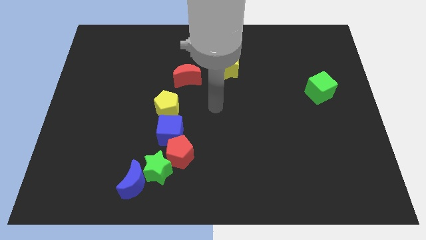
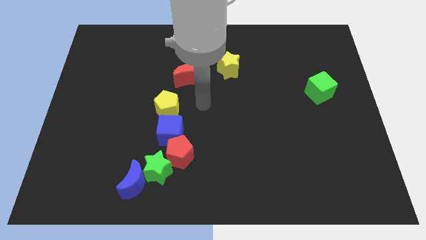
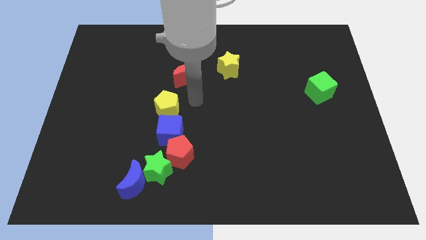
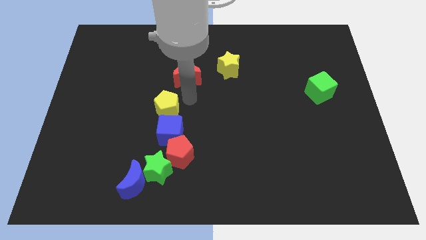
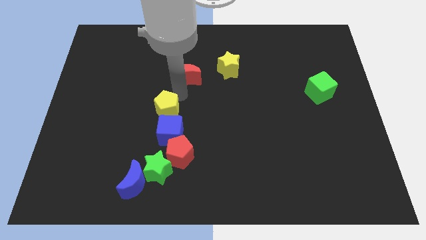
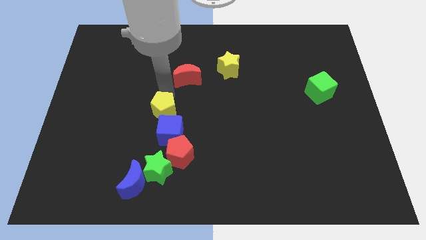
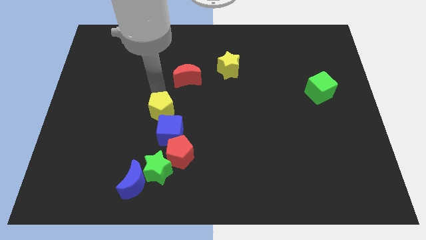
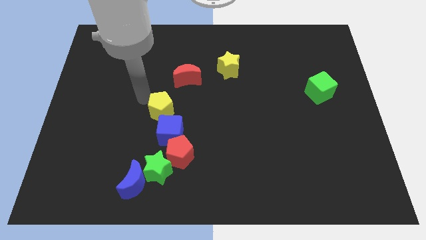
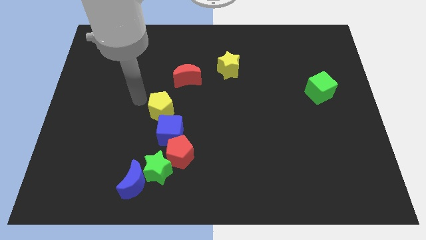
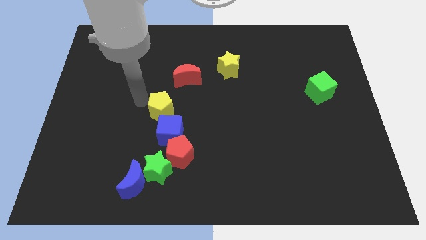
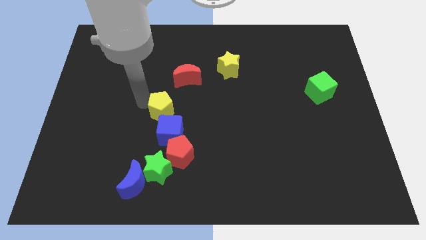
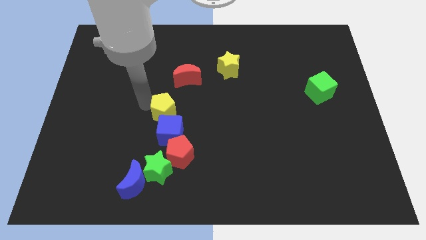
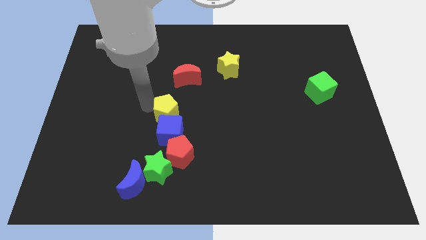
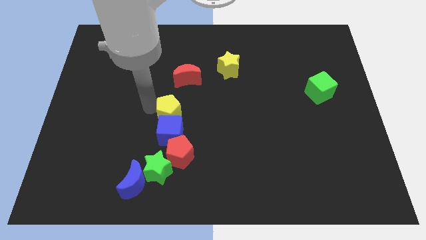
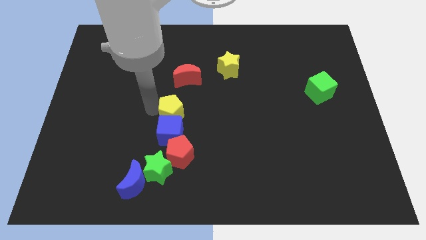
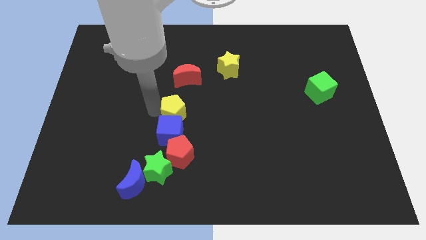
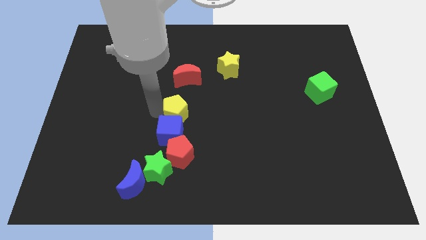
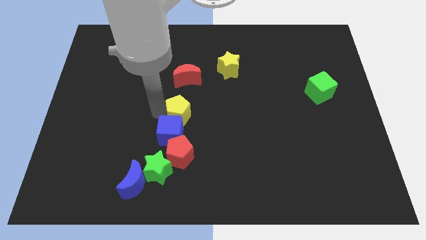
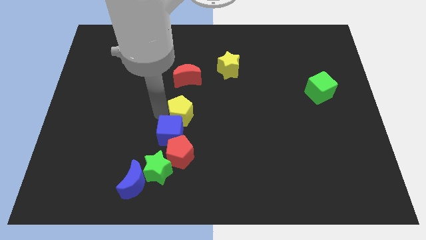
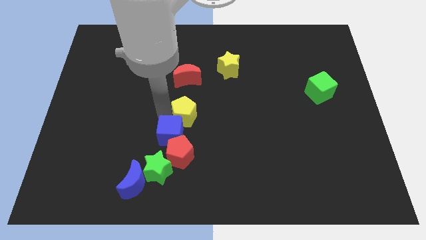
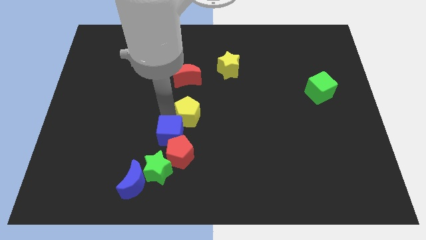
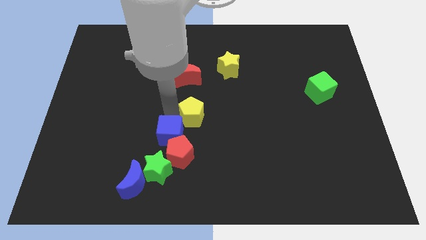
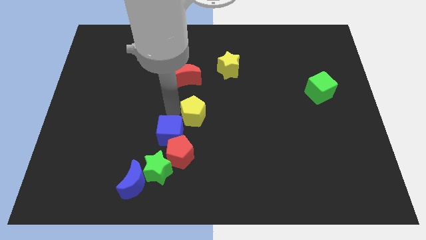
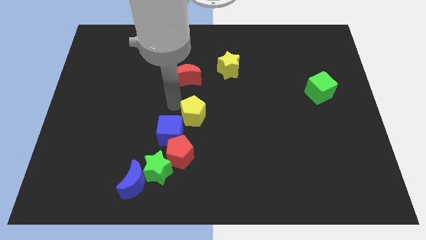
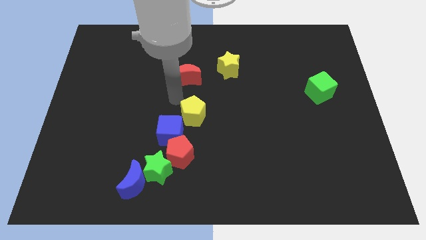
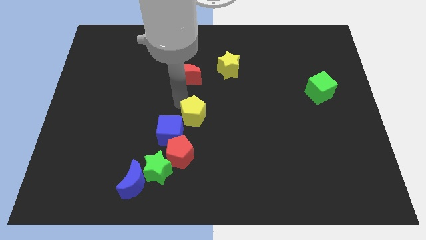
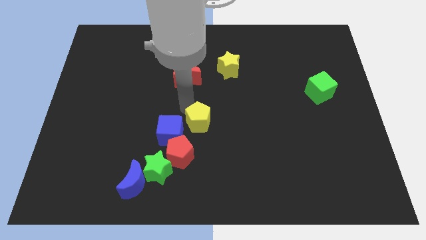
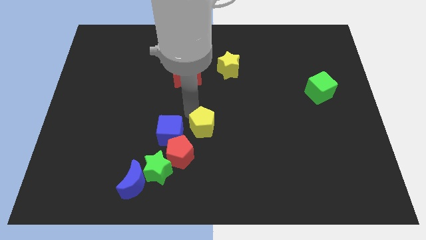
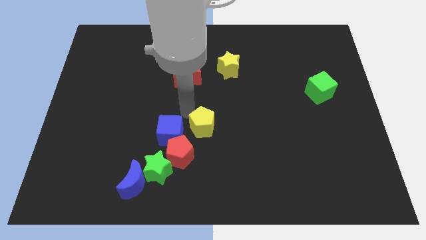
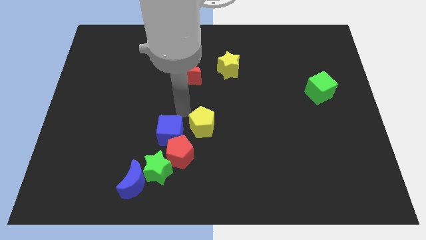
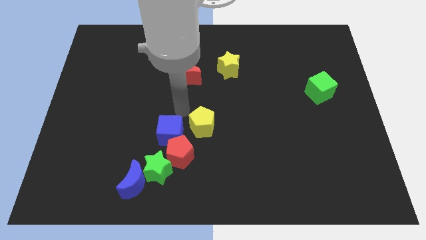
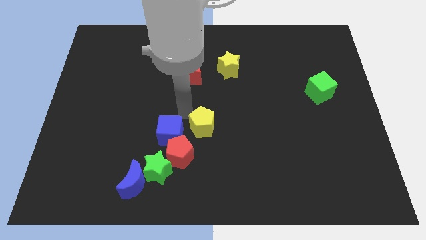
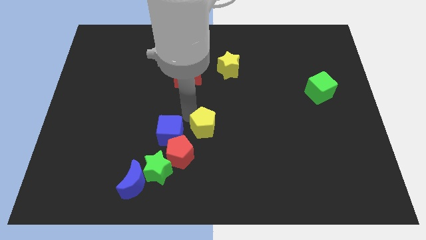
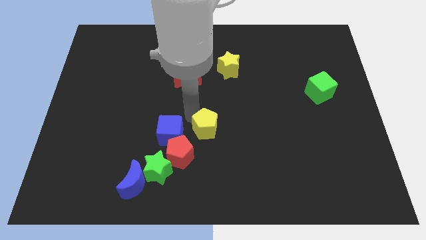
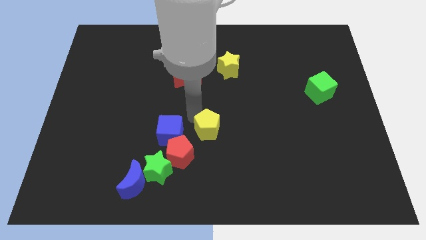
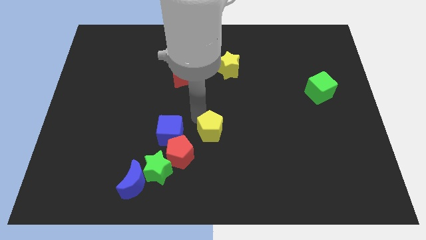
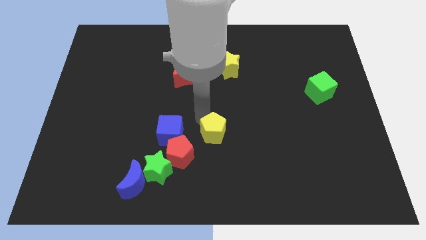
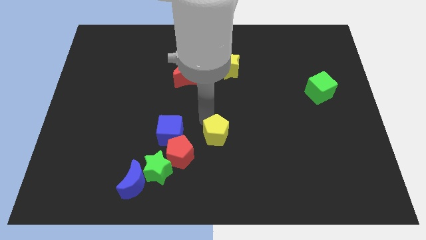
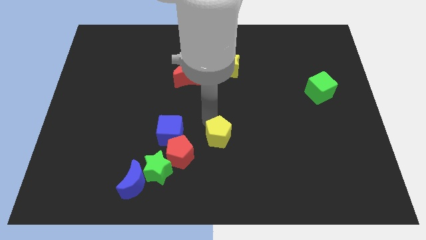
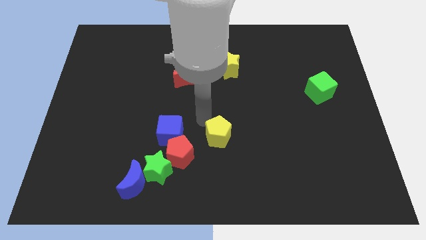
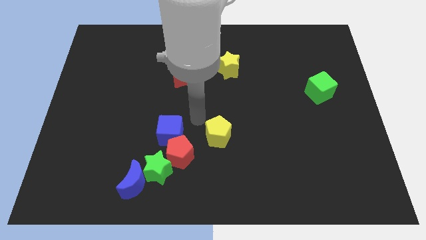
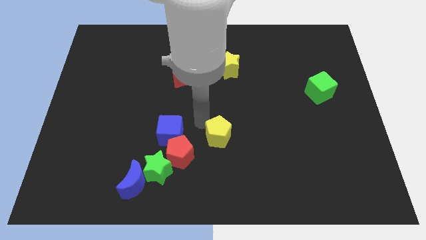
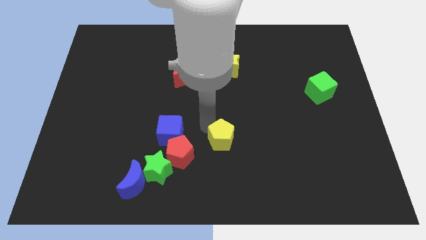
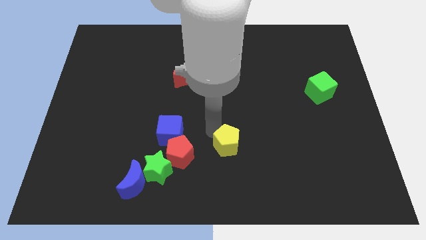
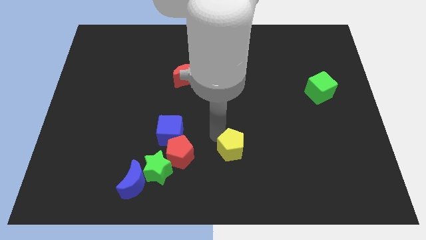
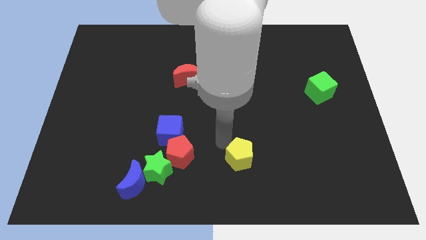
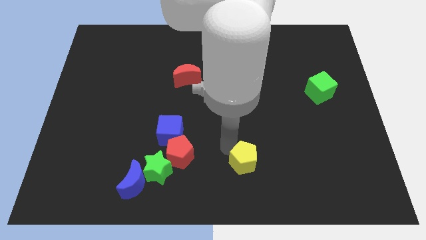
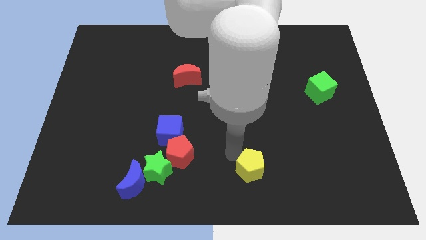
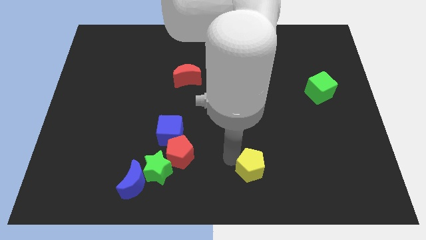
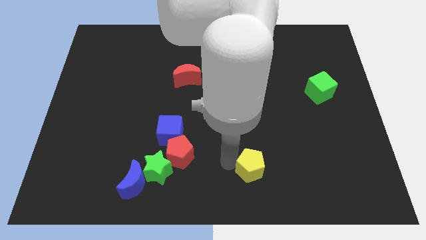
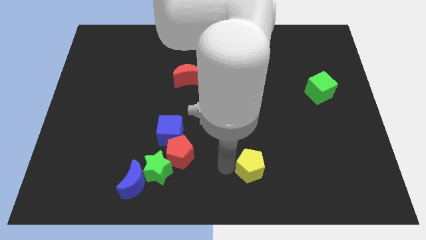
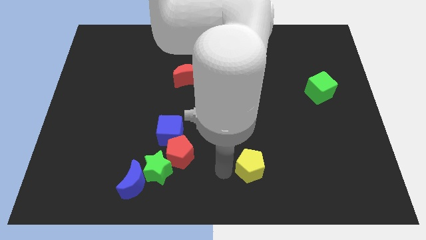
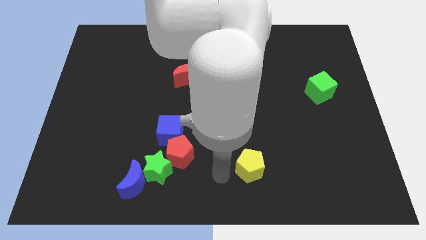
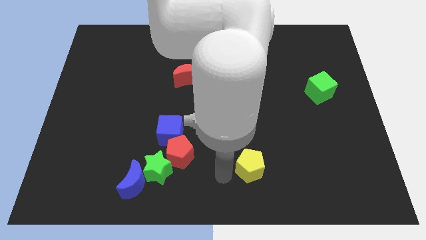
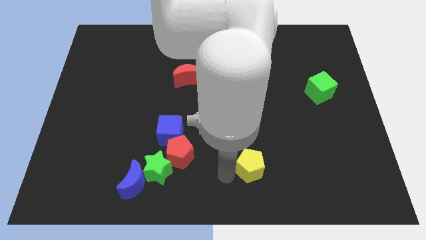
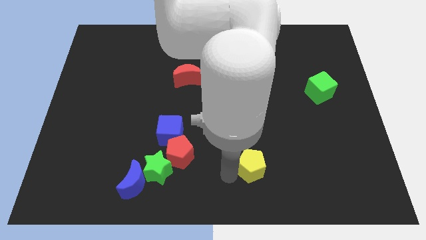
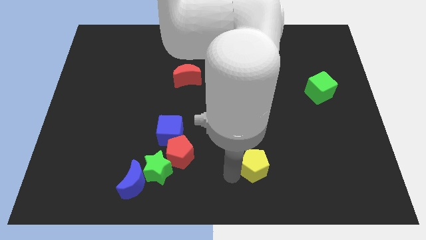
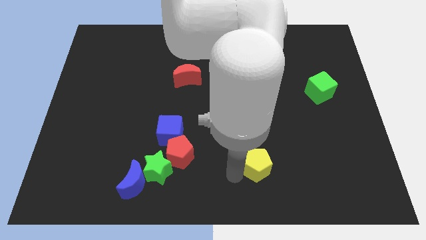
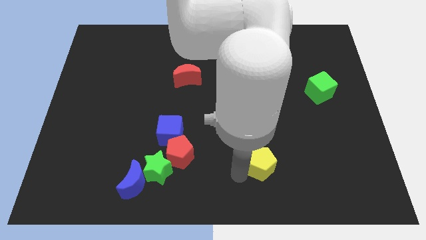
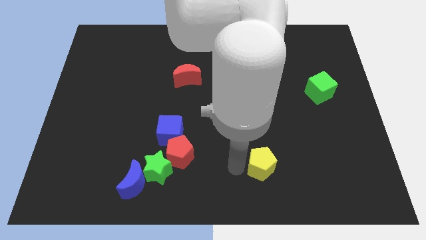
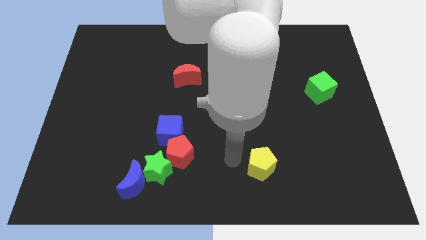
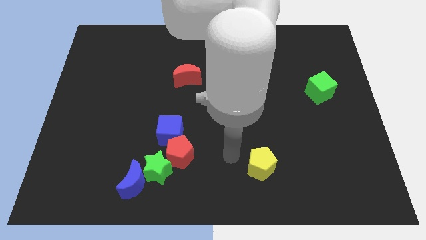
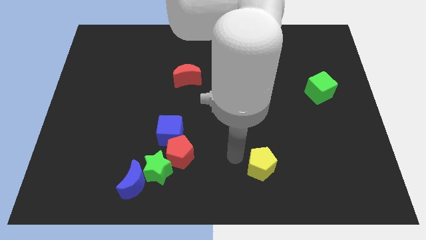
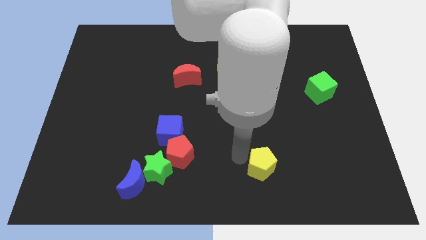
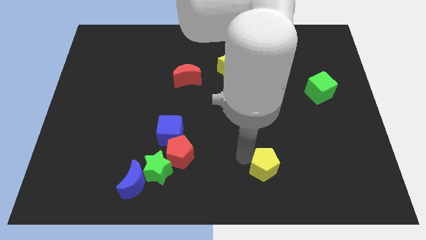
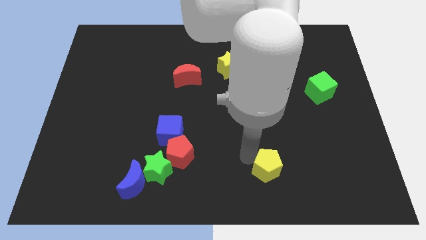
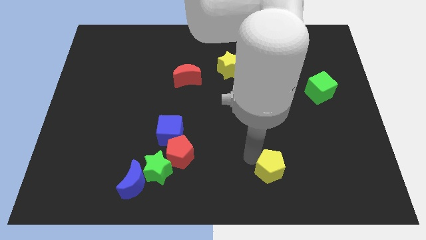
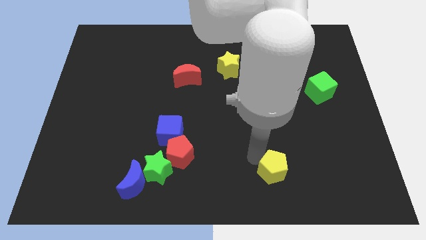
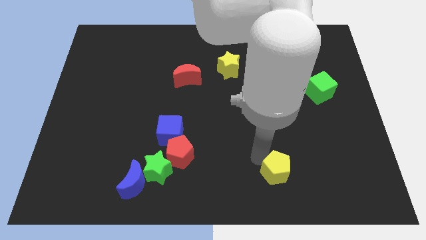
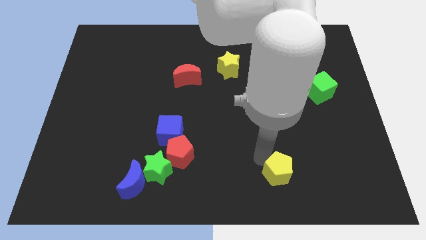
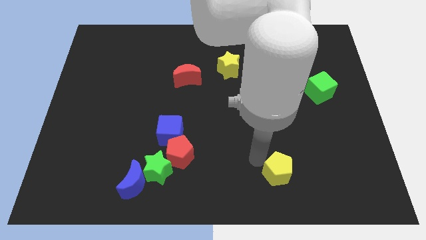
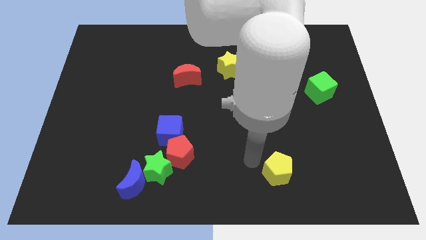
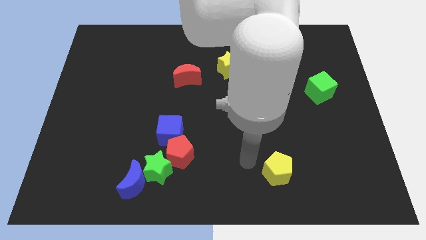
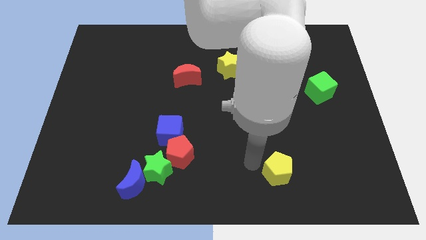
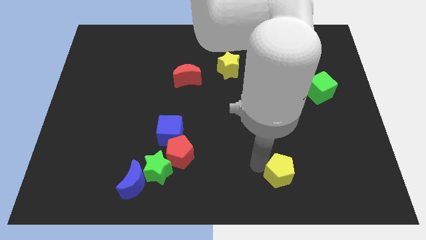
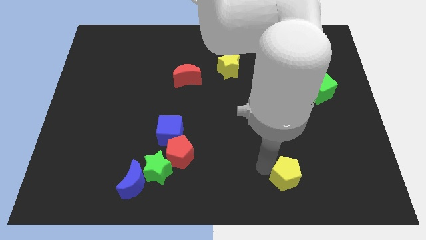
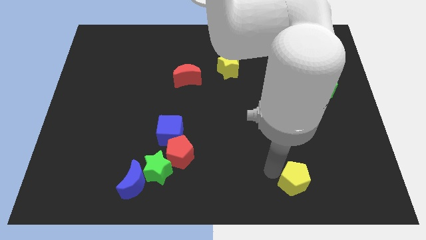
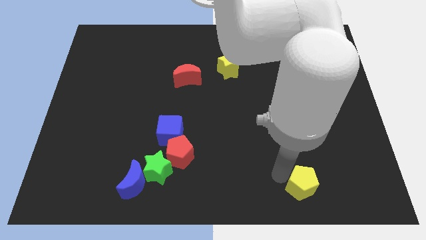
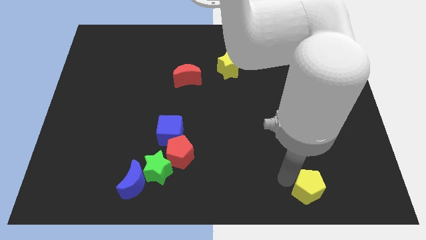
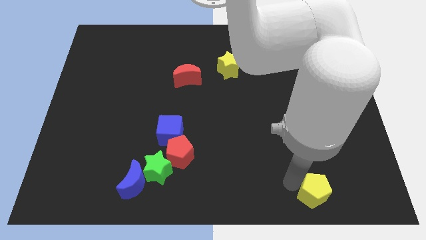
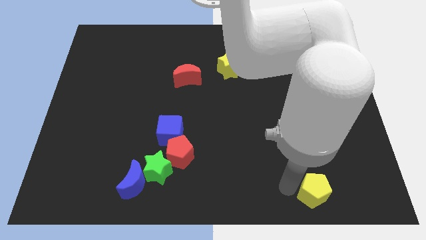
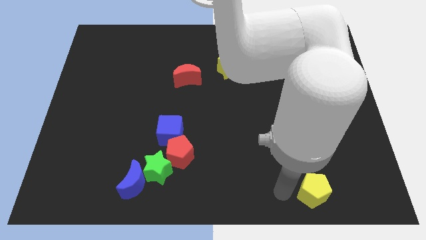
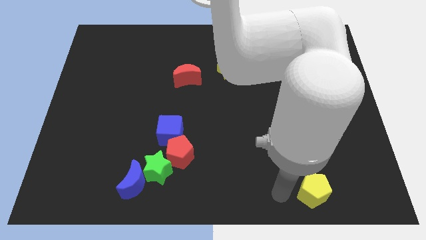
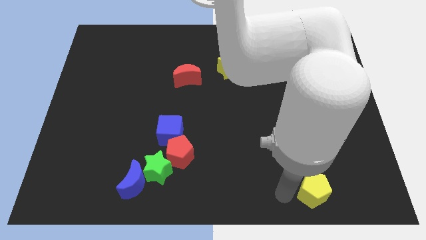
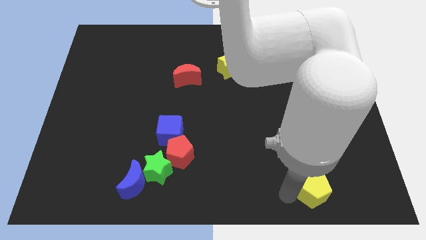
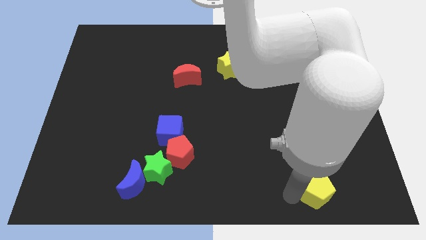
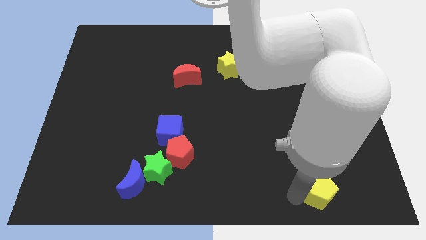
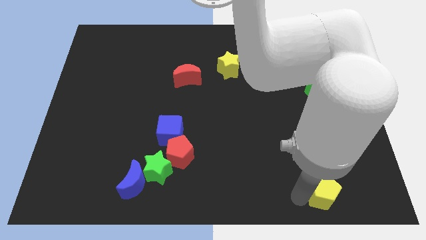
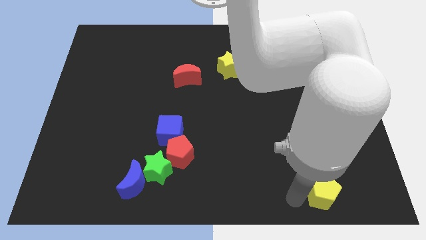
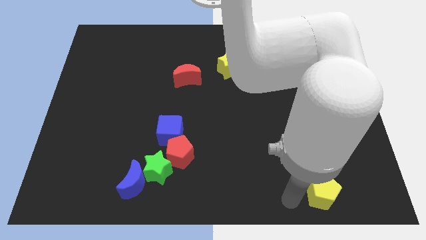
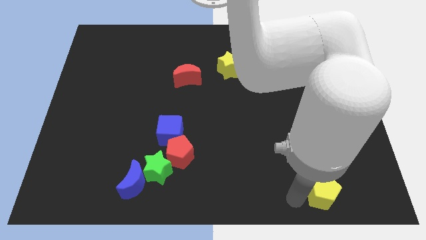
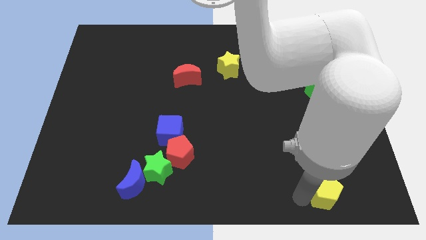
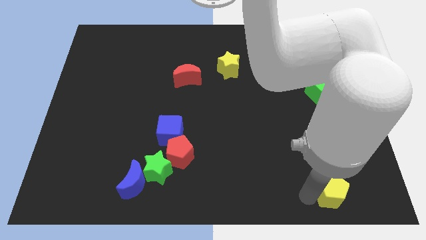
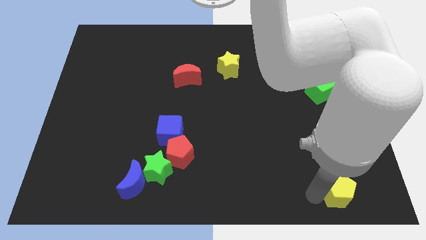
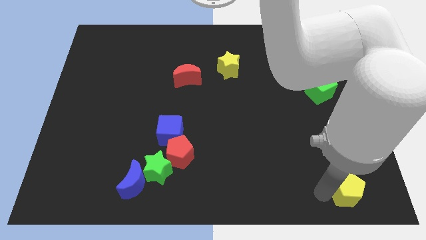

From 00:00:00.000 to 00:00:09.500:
push the yellow pentagon to the lower right corner
